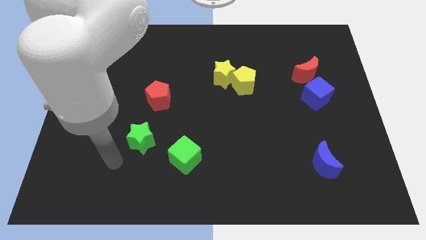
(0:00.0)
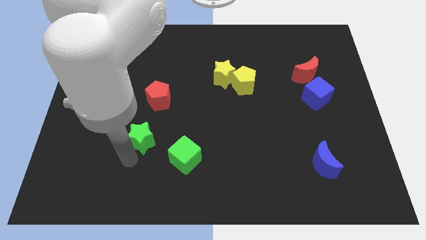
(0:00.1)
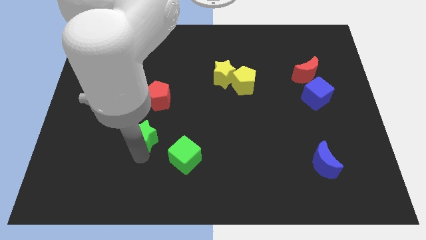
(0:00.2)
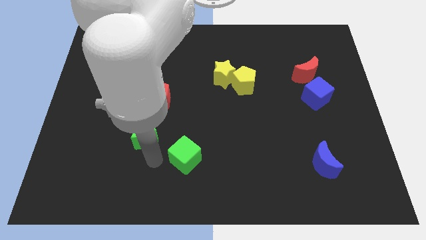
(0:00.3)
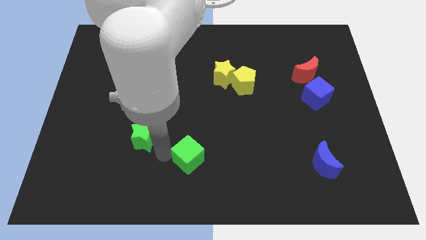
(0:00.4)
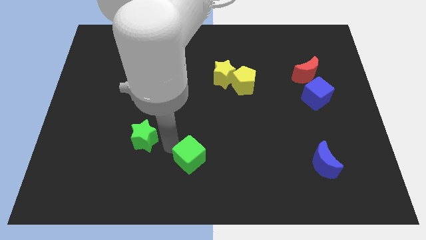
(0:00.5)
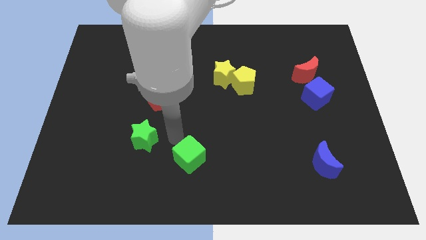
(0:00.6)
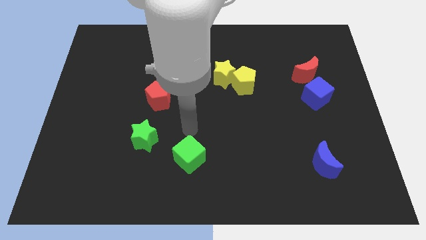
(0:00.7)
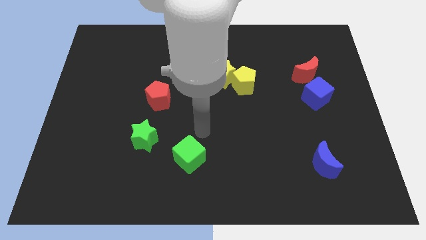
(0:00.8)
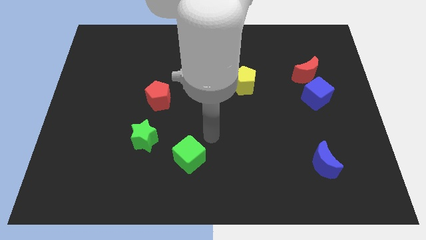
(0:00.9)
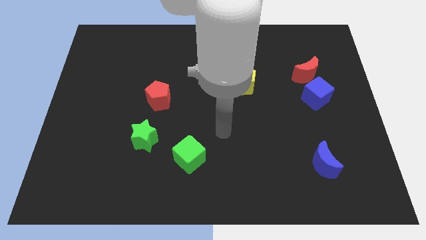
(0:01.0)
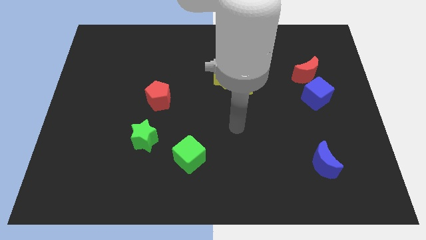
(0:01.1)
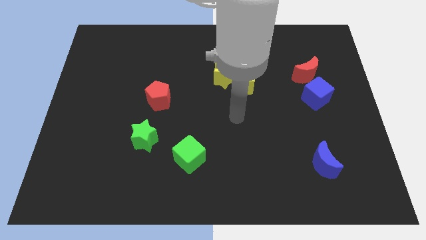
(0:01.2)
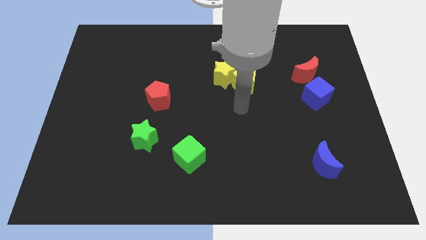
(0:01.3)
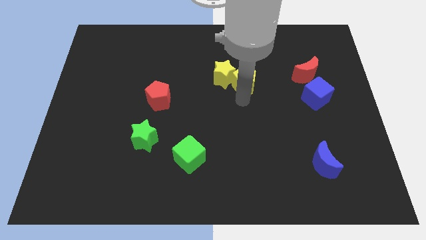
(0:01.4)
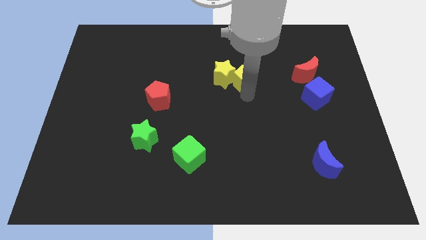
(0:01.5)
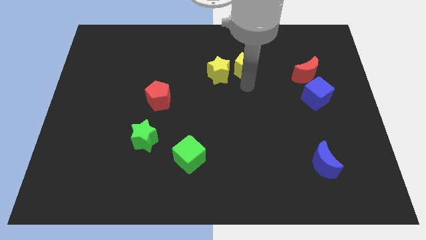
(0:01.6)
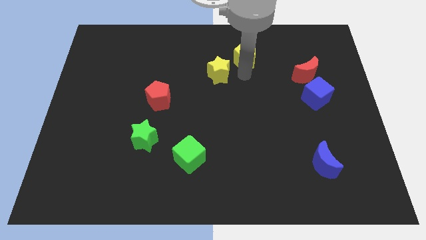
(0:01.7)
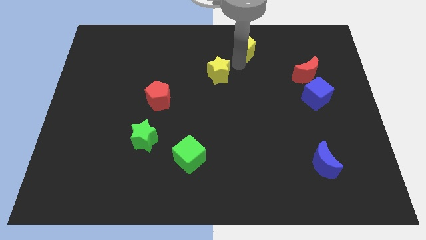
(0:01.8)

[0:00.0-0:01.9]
move the yellow star away from the yellow pentagon

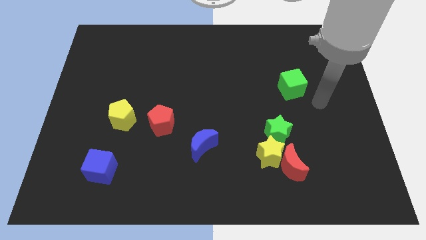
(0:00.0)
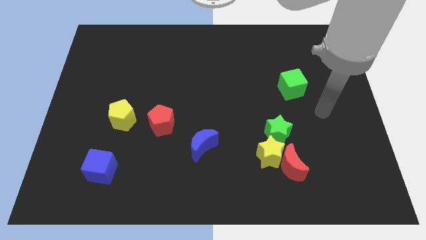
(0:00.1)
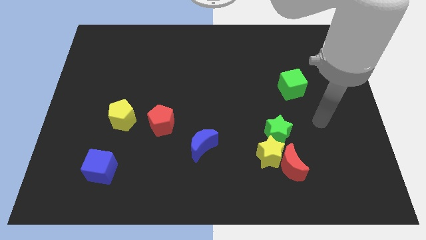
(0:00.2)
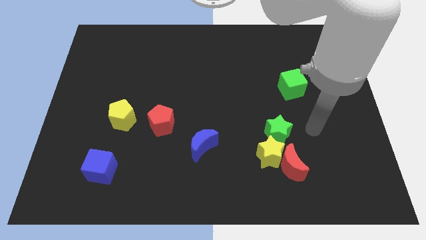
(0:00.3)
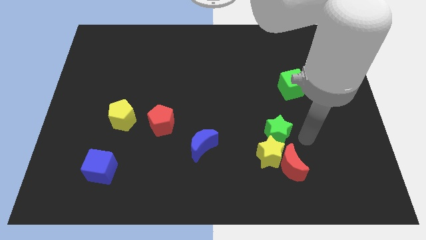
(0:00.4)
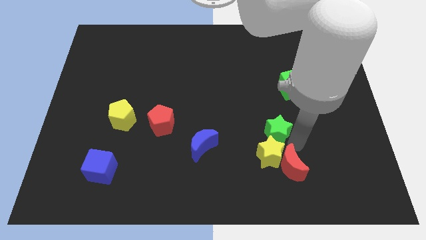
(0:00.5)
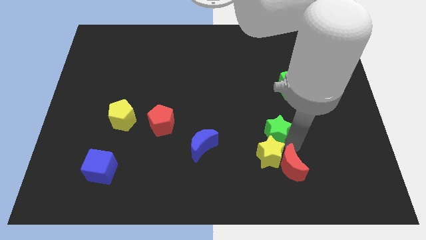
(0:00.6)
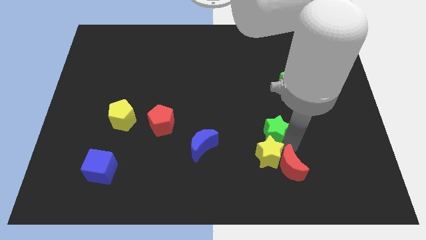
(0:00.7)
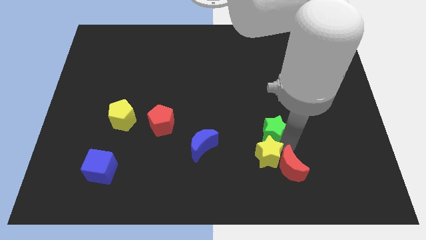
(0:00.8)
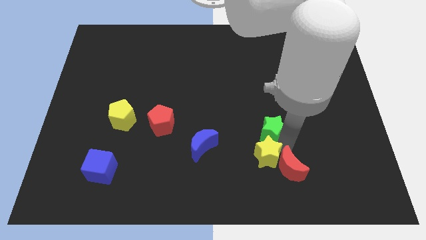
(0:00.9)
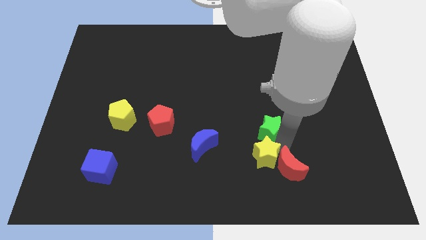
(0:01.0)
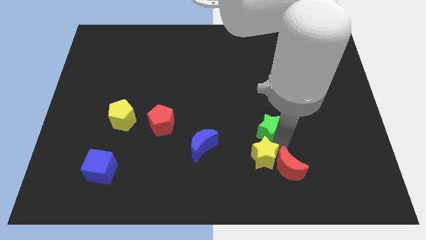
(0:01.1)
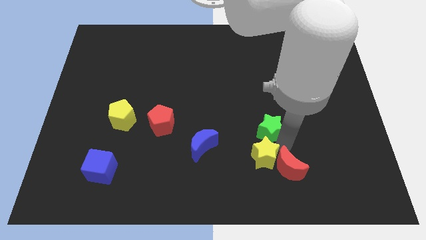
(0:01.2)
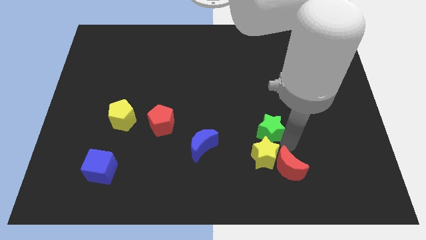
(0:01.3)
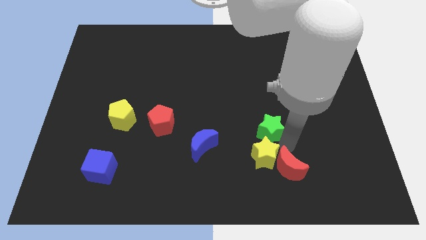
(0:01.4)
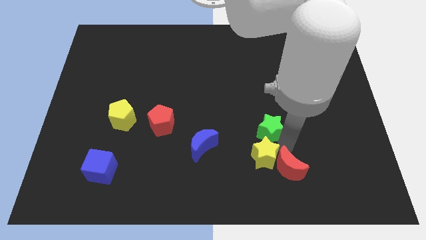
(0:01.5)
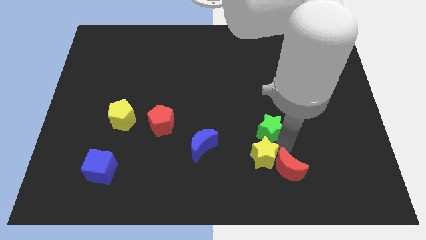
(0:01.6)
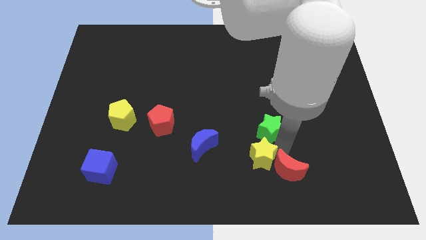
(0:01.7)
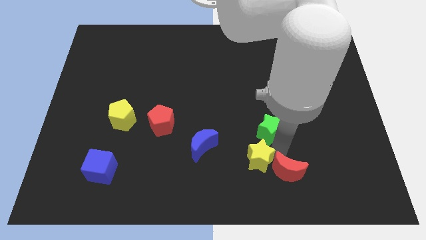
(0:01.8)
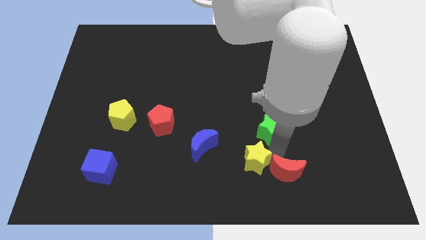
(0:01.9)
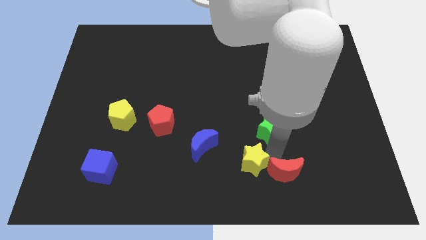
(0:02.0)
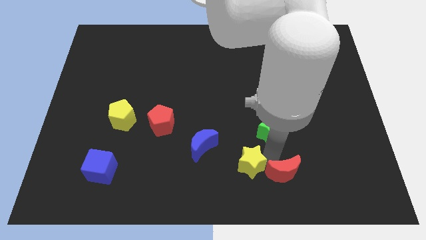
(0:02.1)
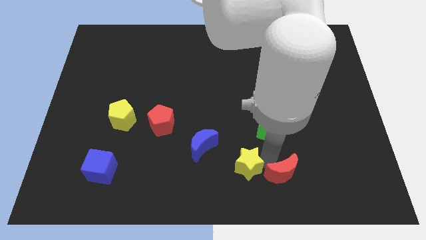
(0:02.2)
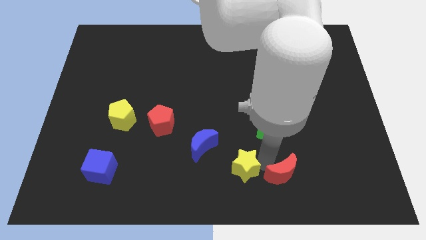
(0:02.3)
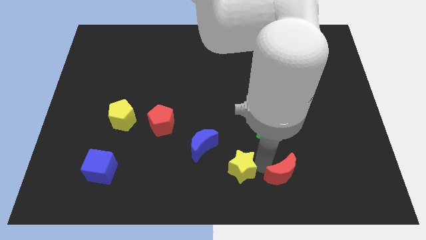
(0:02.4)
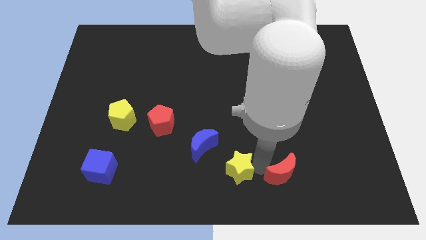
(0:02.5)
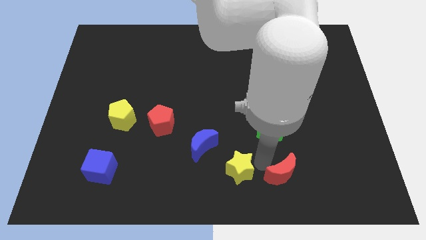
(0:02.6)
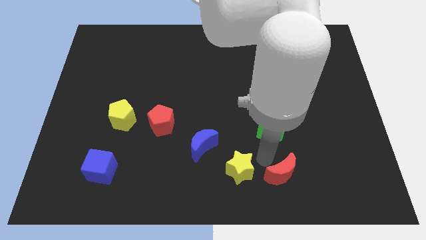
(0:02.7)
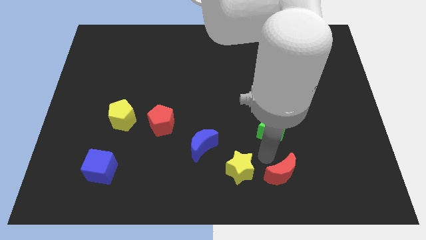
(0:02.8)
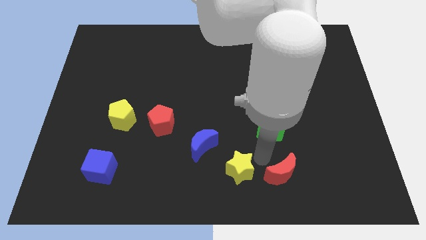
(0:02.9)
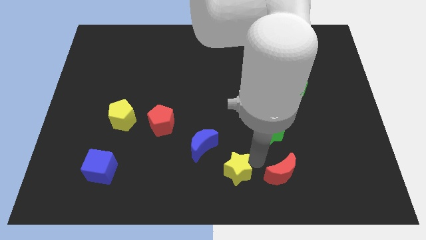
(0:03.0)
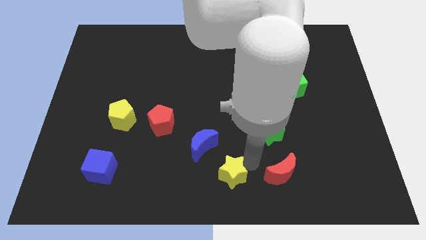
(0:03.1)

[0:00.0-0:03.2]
move the yellow star away from the red moon and green star

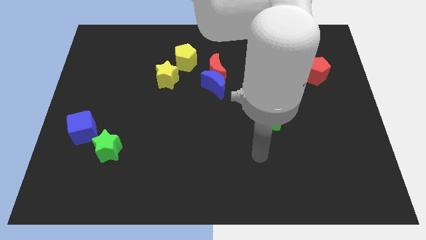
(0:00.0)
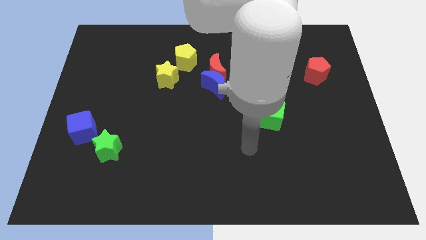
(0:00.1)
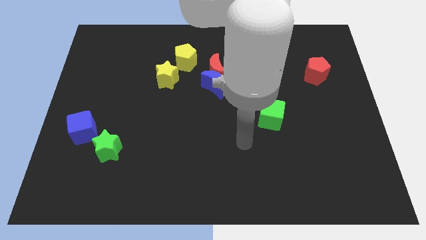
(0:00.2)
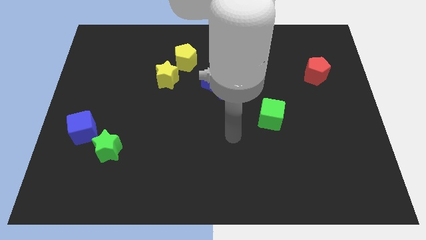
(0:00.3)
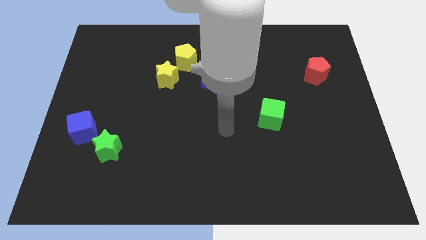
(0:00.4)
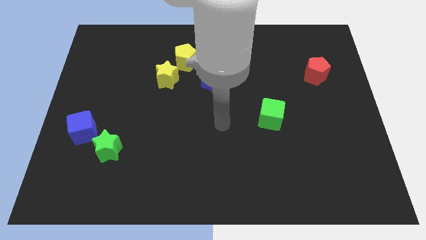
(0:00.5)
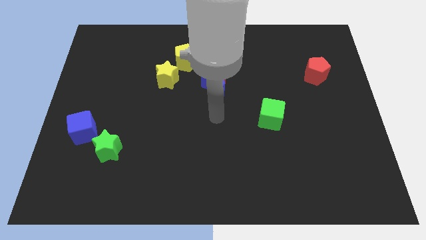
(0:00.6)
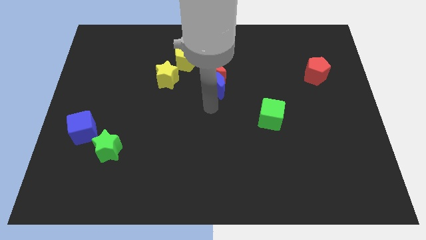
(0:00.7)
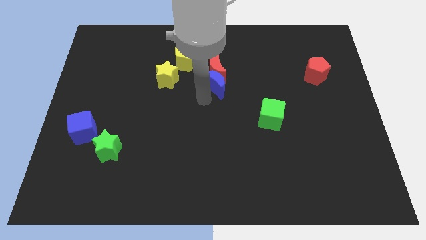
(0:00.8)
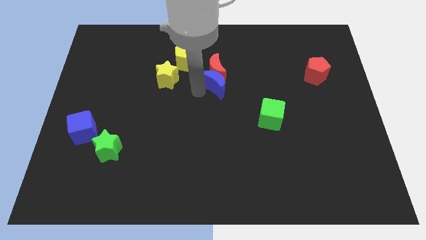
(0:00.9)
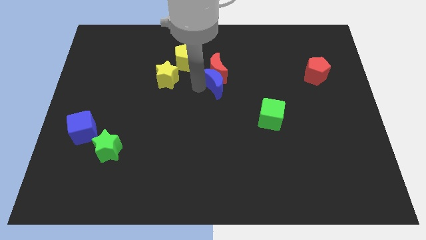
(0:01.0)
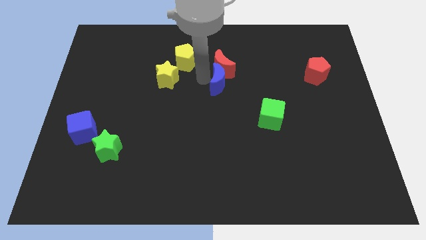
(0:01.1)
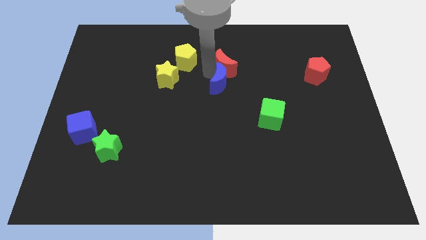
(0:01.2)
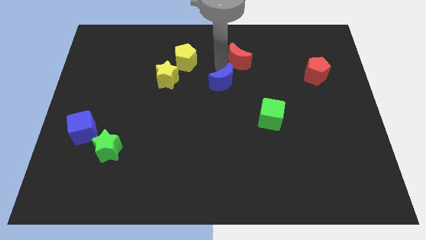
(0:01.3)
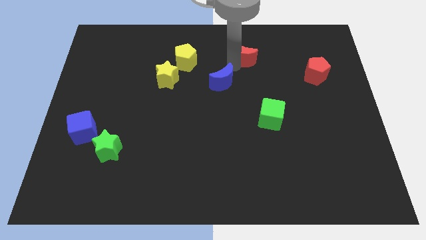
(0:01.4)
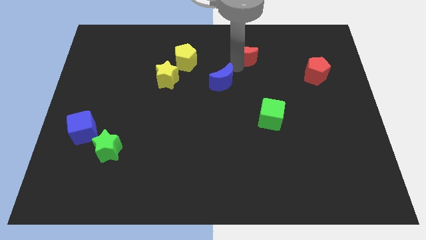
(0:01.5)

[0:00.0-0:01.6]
move the blue moon away from the red moon

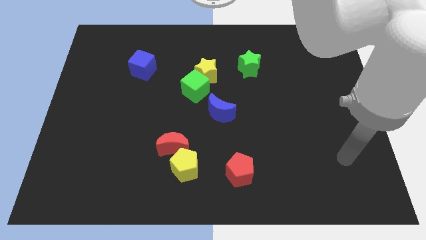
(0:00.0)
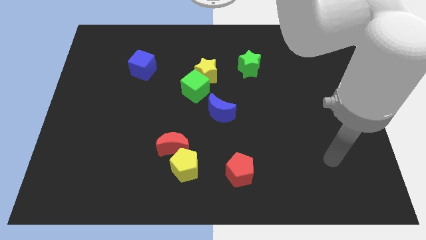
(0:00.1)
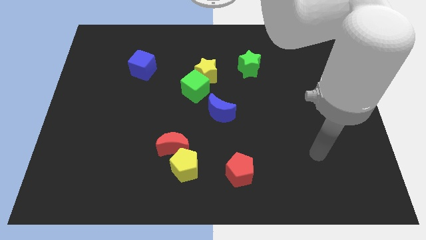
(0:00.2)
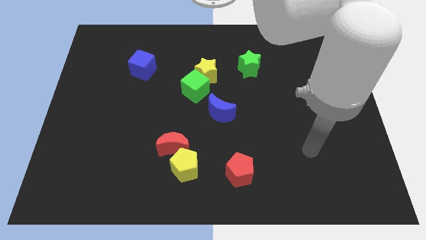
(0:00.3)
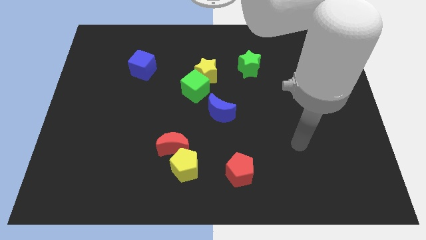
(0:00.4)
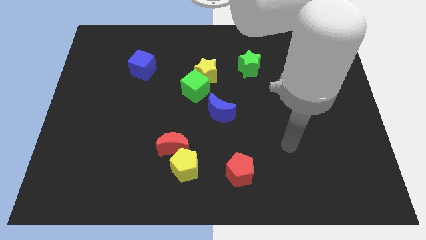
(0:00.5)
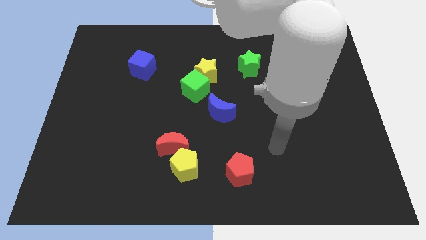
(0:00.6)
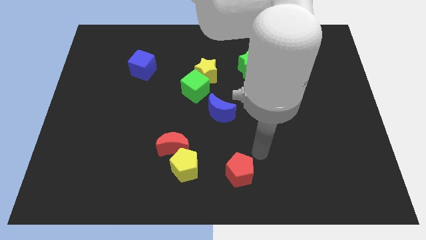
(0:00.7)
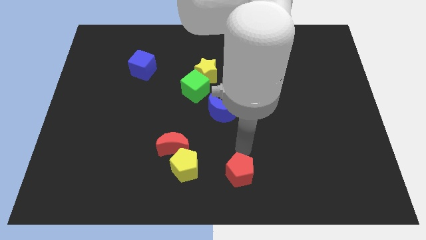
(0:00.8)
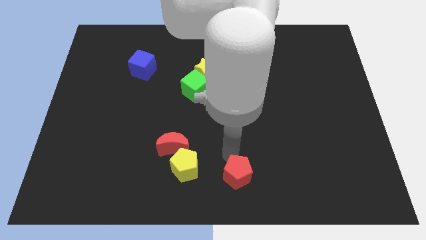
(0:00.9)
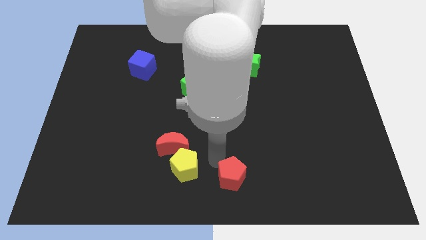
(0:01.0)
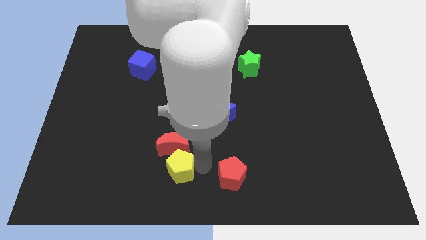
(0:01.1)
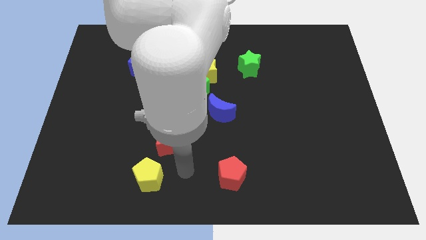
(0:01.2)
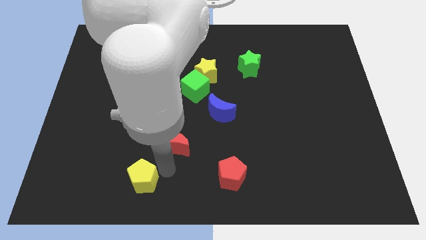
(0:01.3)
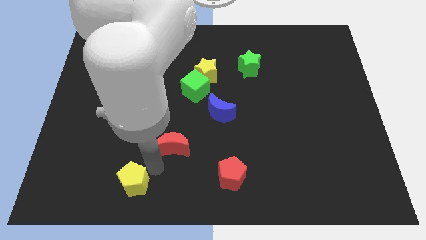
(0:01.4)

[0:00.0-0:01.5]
separate the red moon from the yellow pentagon

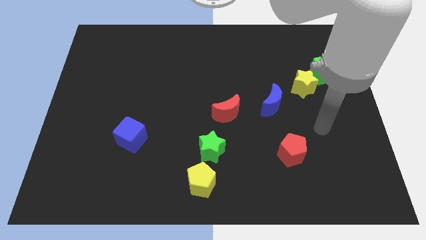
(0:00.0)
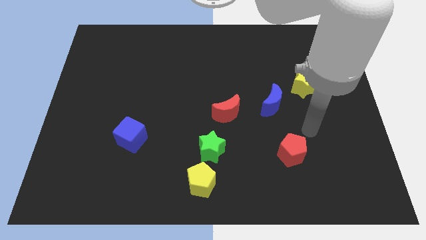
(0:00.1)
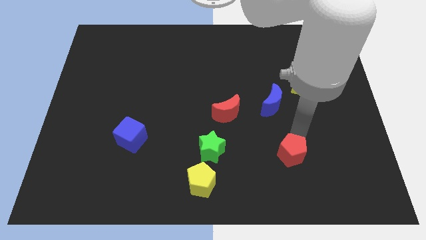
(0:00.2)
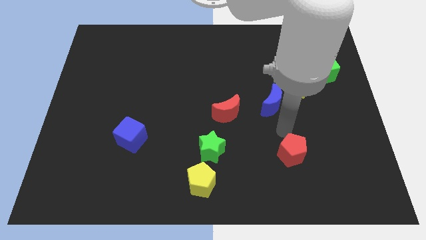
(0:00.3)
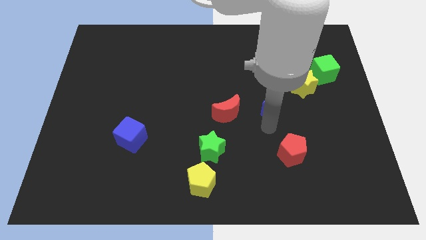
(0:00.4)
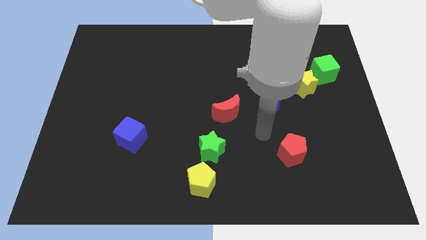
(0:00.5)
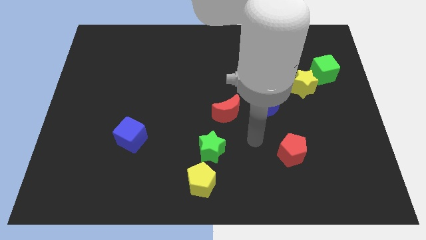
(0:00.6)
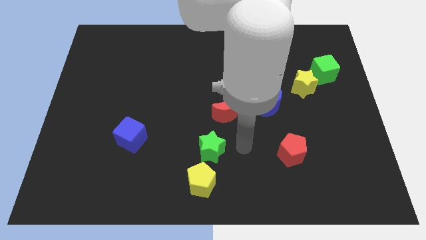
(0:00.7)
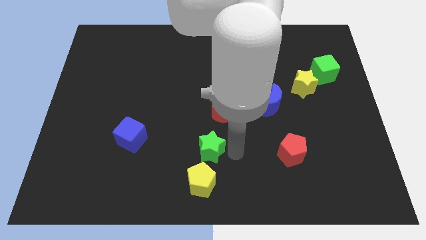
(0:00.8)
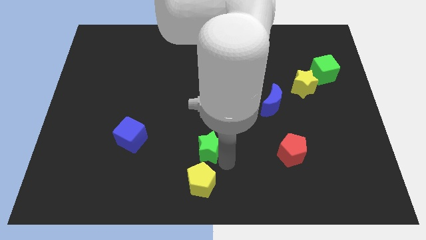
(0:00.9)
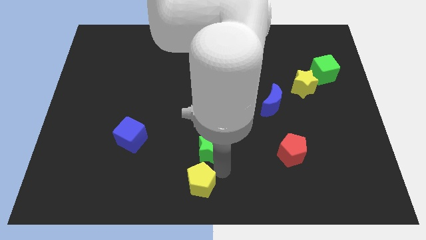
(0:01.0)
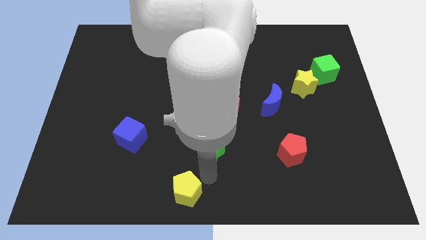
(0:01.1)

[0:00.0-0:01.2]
separate the green star from the yellow pentagon
